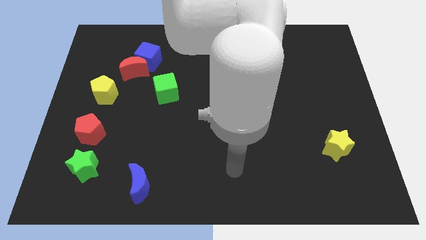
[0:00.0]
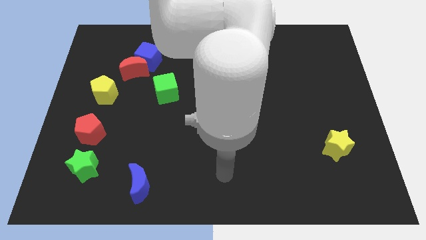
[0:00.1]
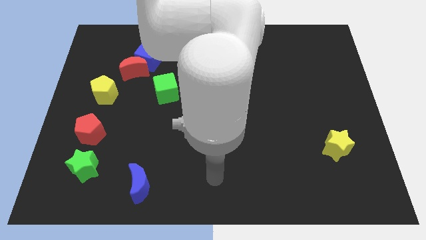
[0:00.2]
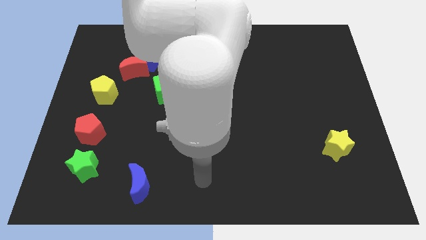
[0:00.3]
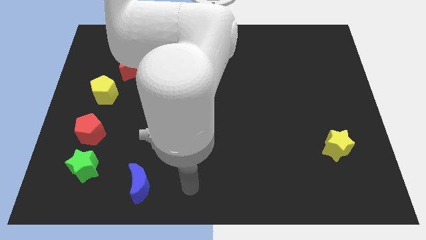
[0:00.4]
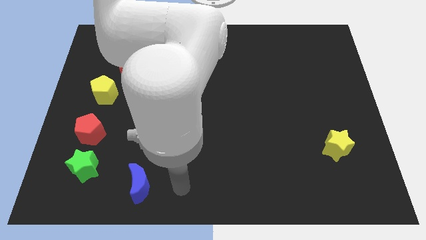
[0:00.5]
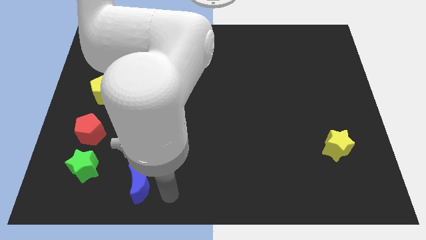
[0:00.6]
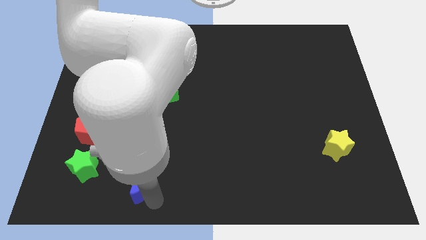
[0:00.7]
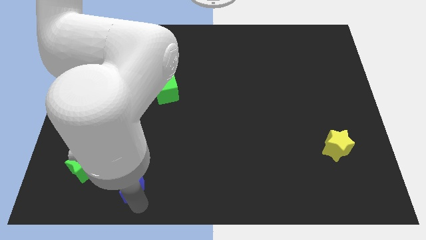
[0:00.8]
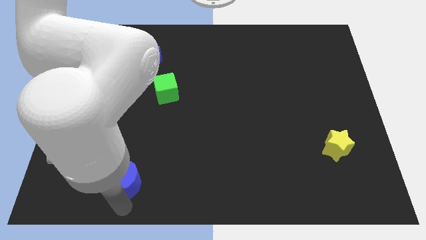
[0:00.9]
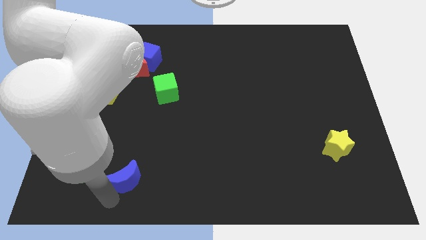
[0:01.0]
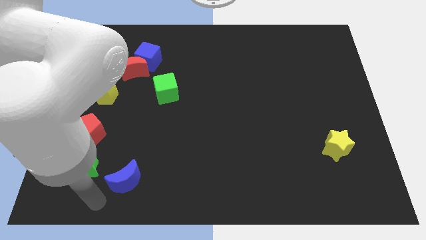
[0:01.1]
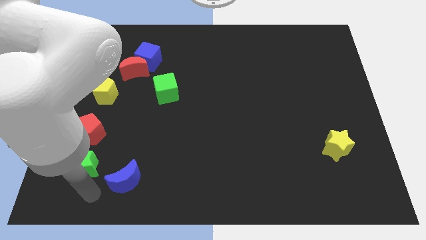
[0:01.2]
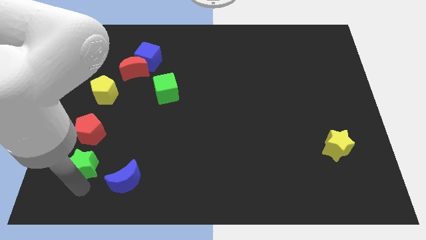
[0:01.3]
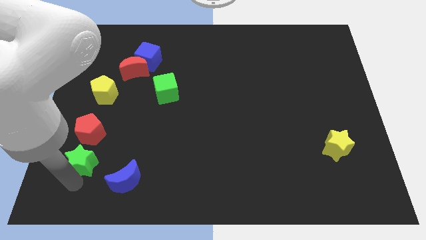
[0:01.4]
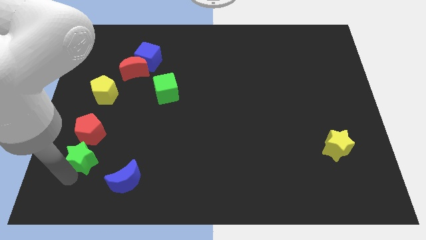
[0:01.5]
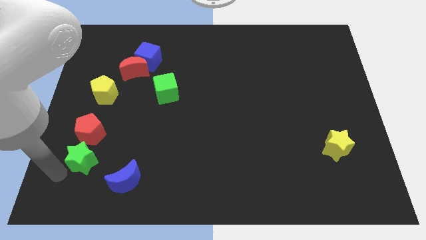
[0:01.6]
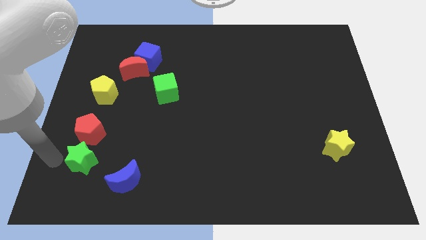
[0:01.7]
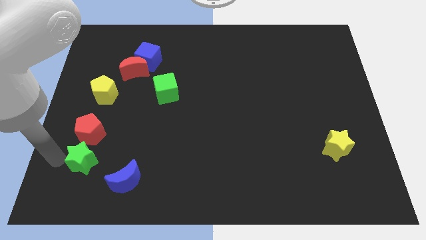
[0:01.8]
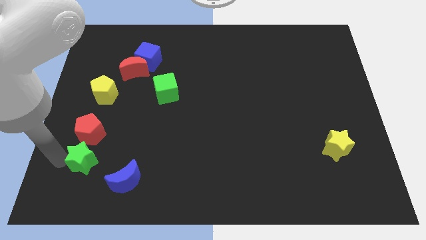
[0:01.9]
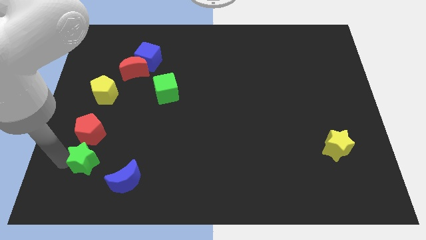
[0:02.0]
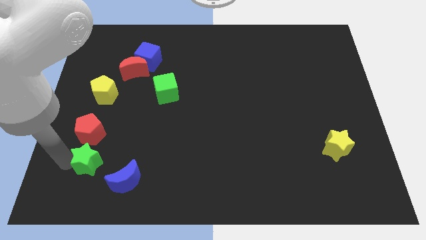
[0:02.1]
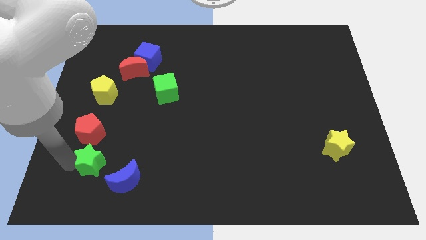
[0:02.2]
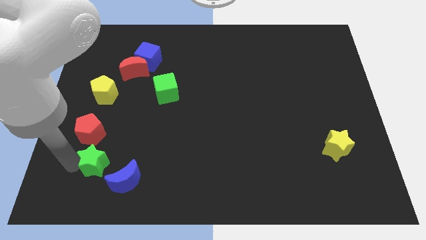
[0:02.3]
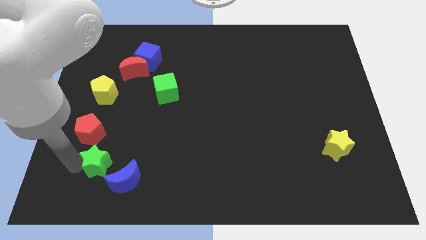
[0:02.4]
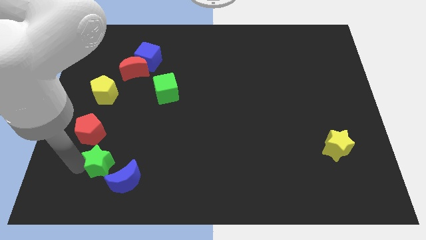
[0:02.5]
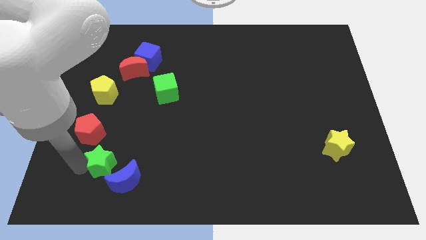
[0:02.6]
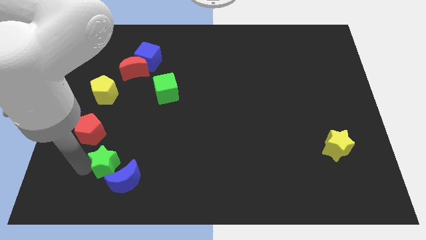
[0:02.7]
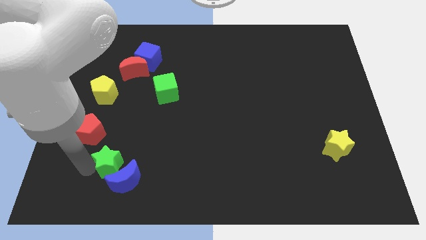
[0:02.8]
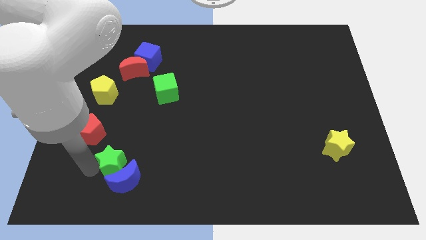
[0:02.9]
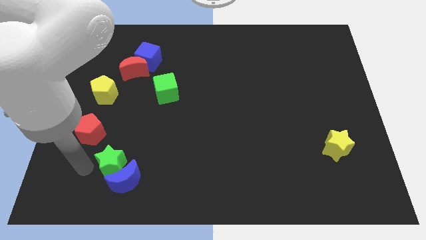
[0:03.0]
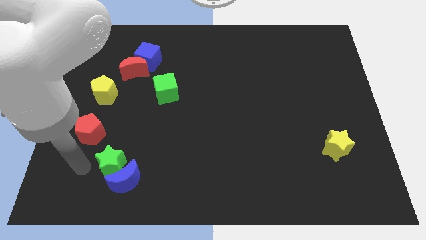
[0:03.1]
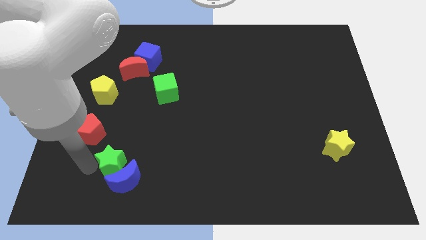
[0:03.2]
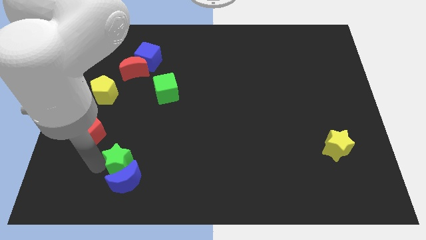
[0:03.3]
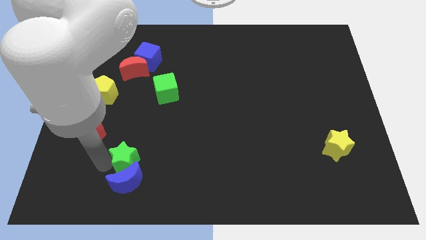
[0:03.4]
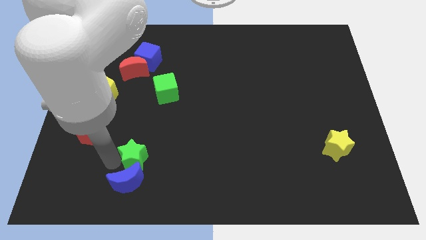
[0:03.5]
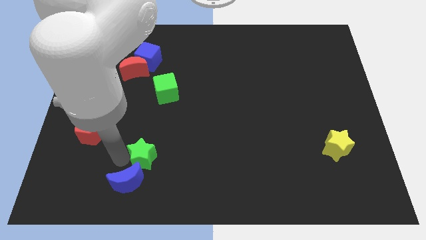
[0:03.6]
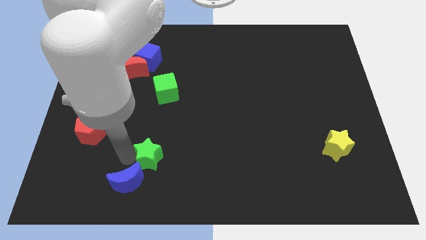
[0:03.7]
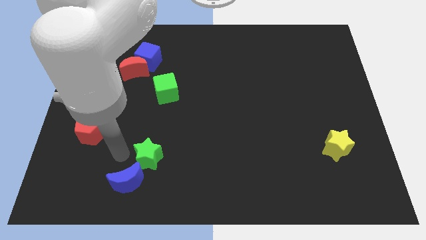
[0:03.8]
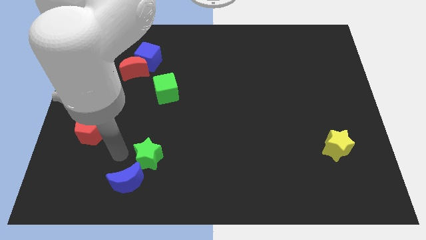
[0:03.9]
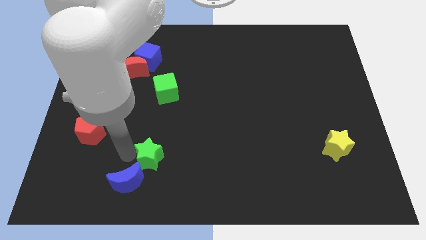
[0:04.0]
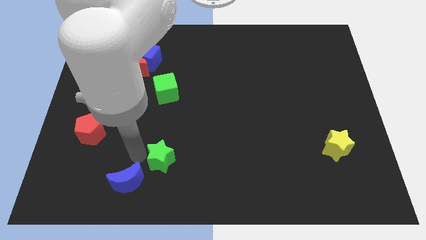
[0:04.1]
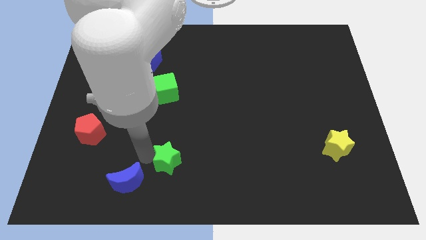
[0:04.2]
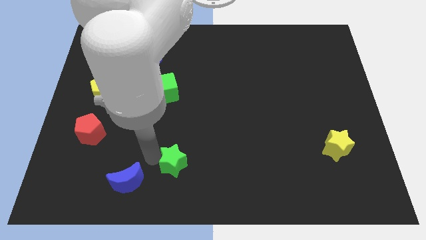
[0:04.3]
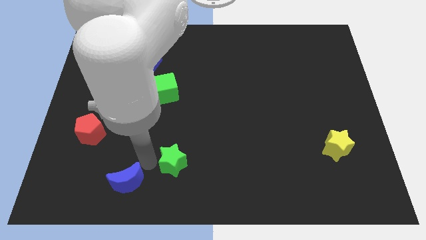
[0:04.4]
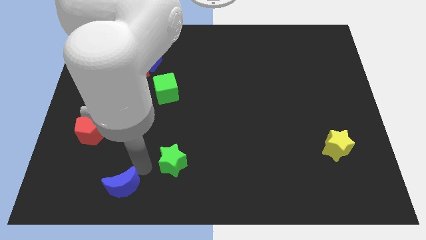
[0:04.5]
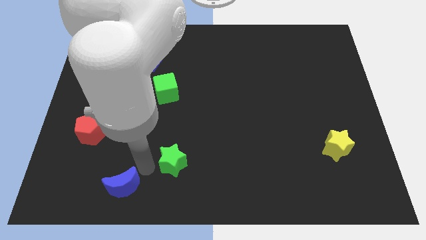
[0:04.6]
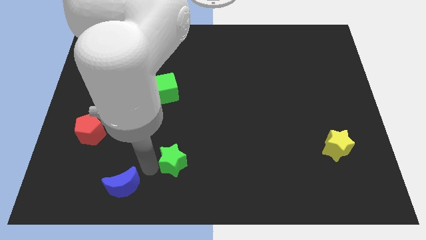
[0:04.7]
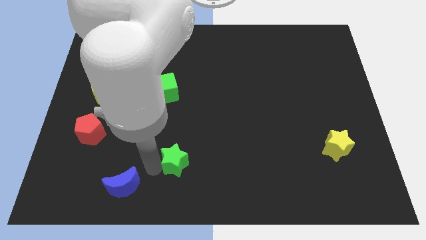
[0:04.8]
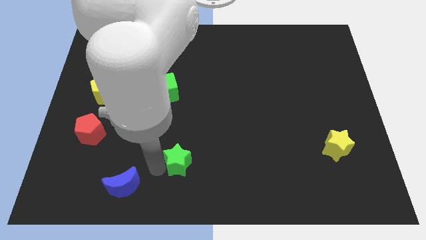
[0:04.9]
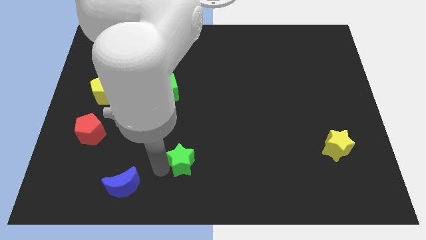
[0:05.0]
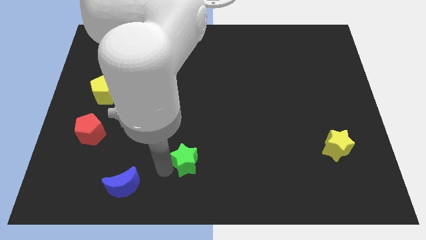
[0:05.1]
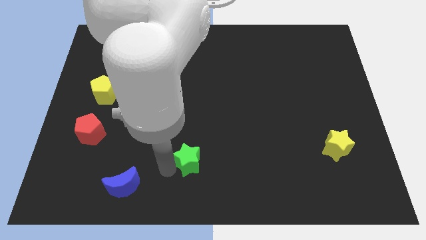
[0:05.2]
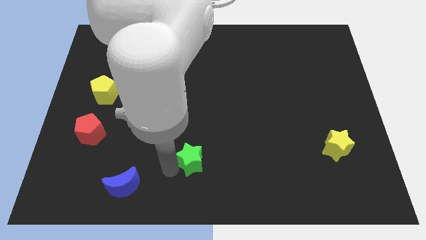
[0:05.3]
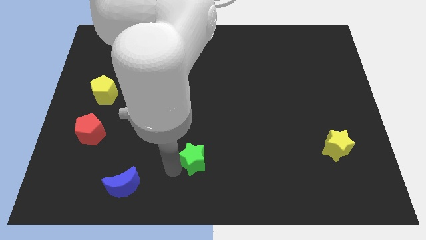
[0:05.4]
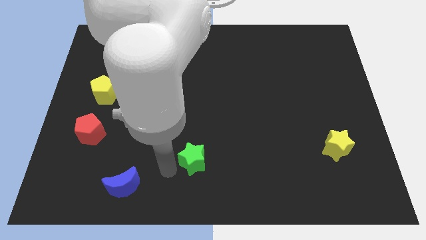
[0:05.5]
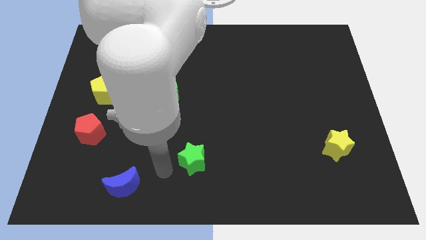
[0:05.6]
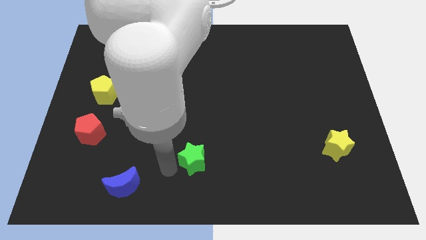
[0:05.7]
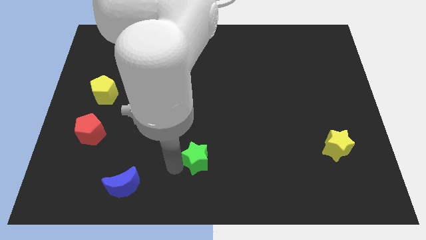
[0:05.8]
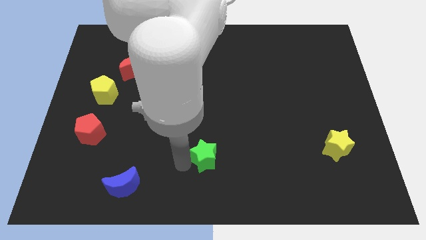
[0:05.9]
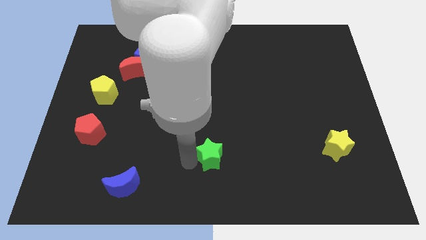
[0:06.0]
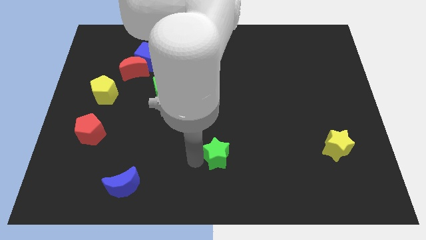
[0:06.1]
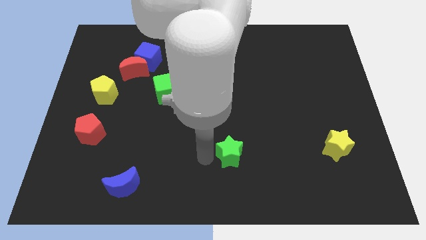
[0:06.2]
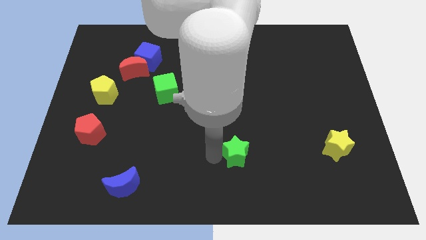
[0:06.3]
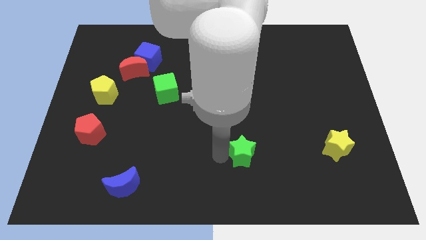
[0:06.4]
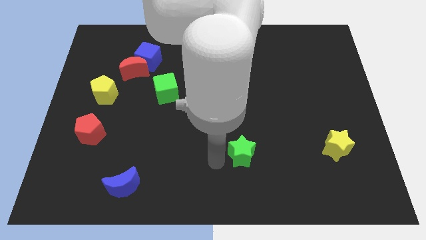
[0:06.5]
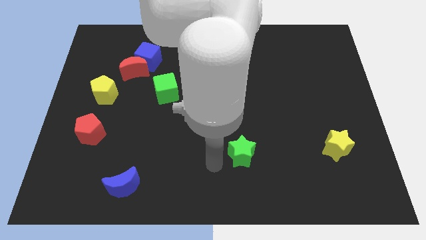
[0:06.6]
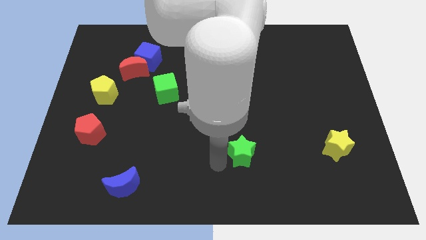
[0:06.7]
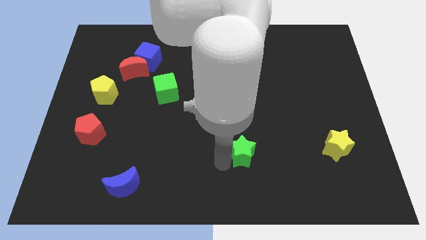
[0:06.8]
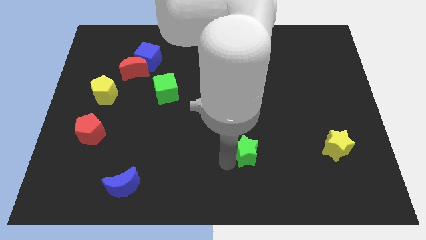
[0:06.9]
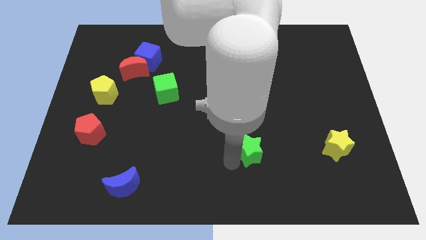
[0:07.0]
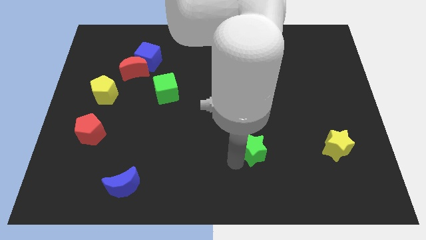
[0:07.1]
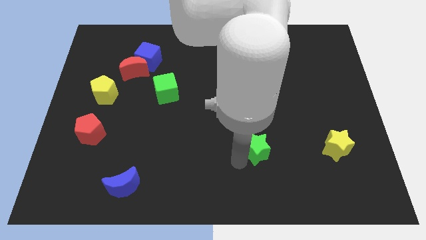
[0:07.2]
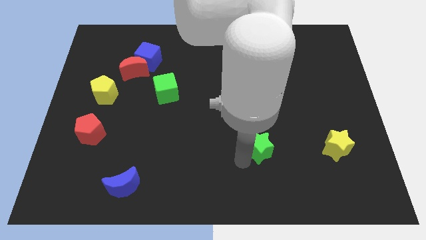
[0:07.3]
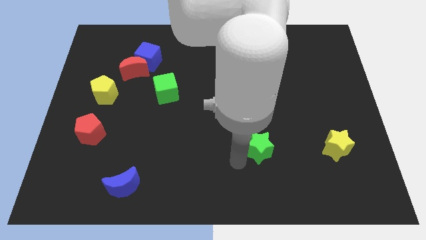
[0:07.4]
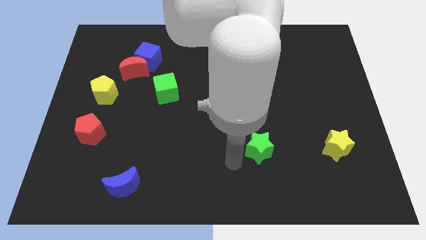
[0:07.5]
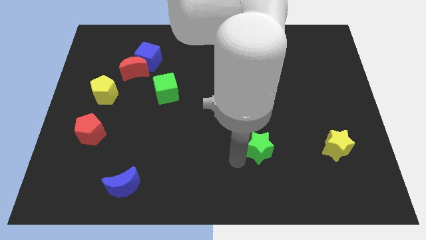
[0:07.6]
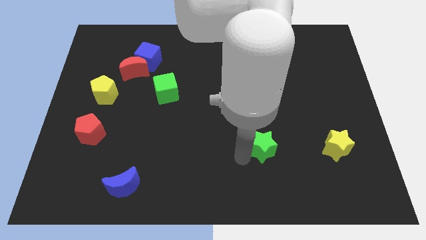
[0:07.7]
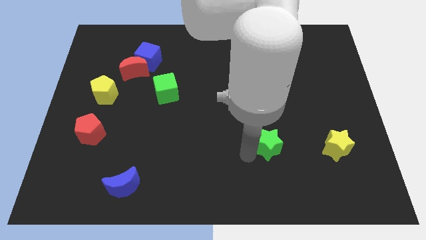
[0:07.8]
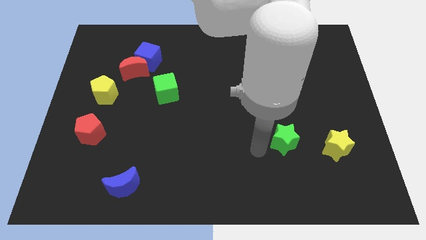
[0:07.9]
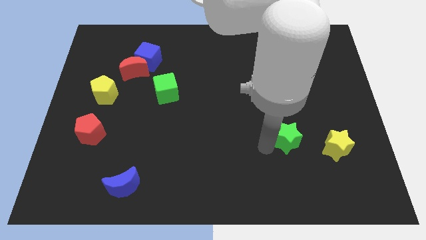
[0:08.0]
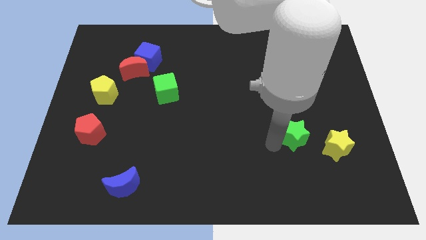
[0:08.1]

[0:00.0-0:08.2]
push the green star to the top left of the yellow star
